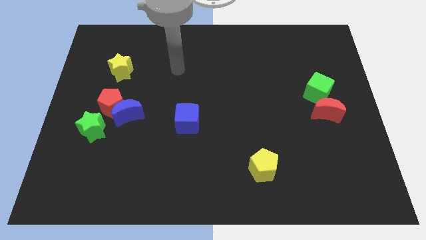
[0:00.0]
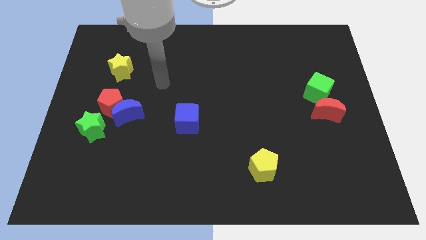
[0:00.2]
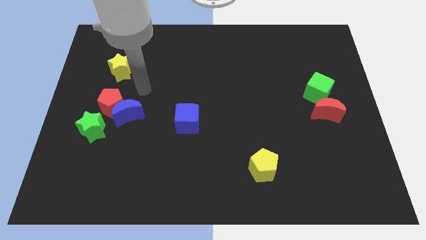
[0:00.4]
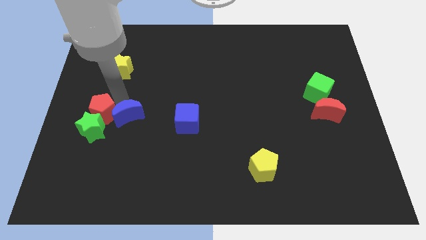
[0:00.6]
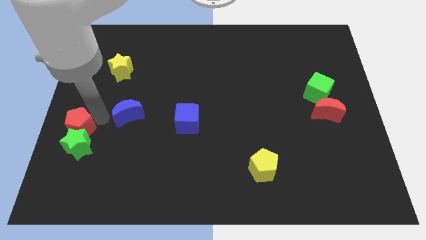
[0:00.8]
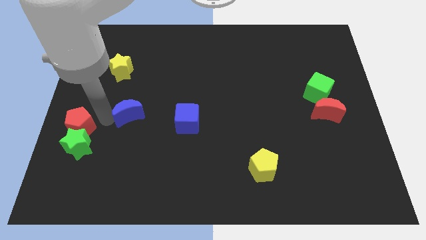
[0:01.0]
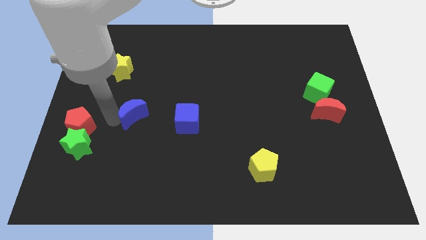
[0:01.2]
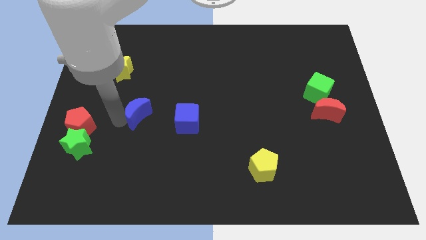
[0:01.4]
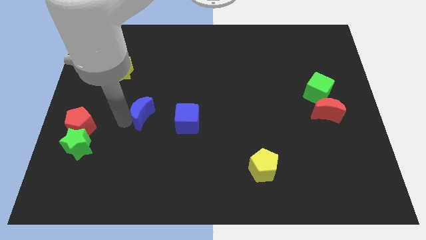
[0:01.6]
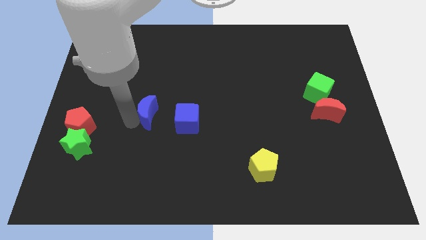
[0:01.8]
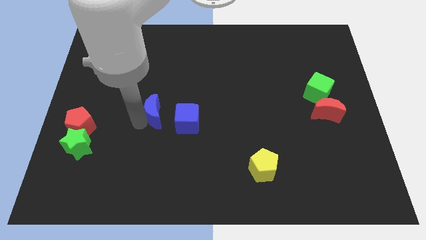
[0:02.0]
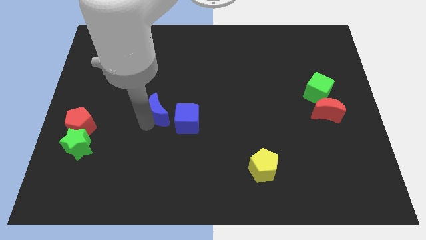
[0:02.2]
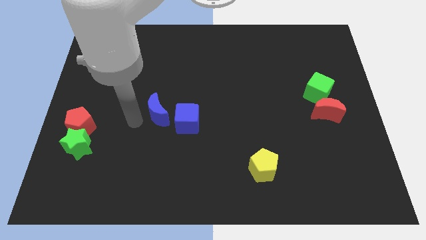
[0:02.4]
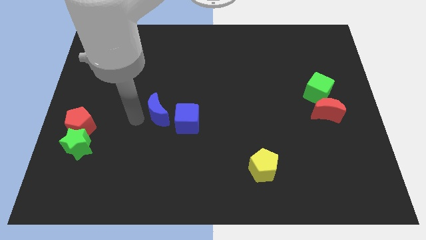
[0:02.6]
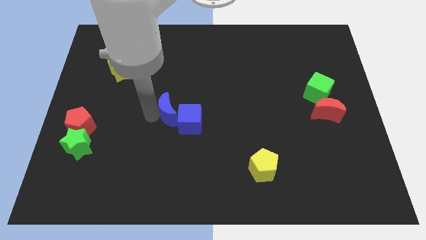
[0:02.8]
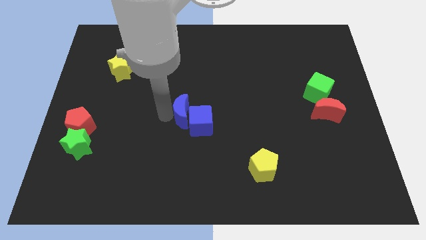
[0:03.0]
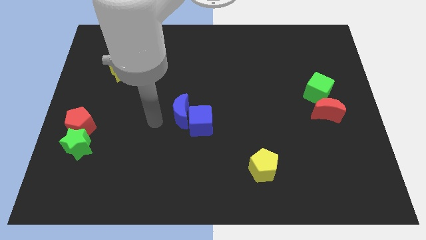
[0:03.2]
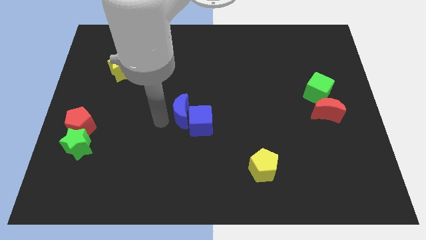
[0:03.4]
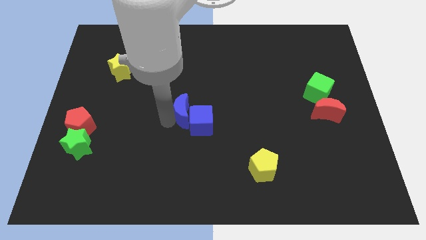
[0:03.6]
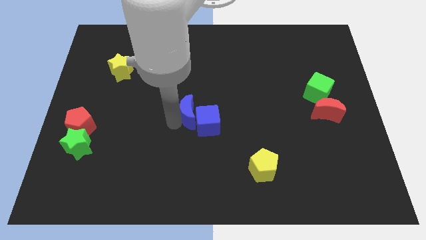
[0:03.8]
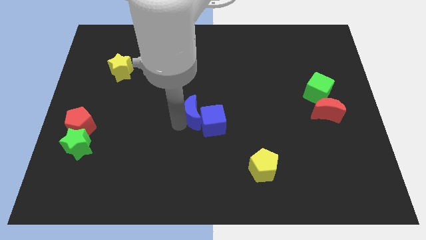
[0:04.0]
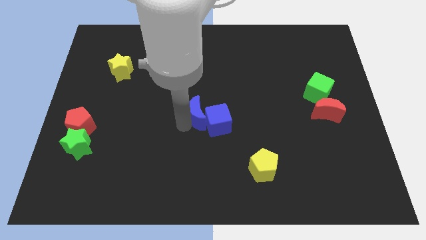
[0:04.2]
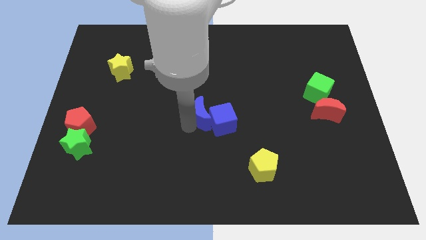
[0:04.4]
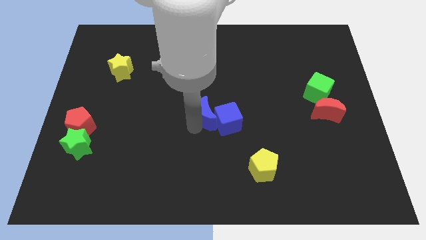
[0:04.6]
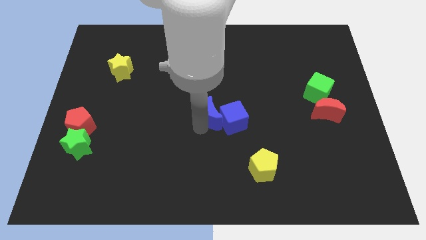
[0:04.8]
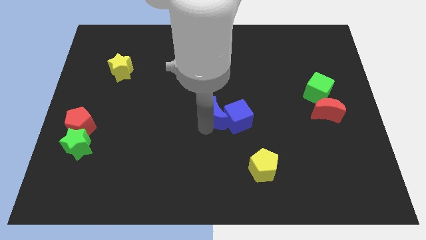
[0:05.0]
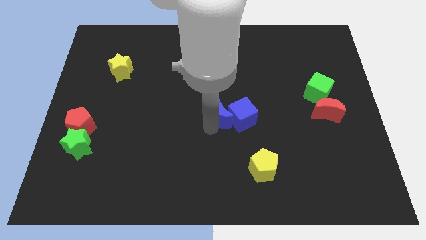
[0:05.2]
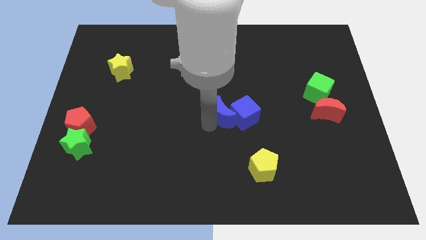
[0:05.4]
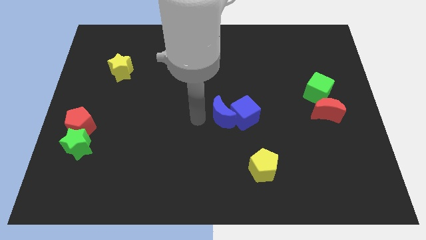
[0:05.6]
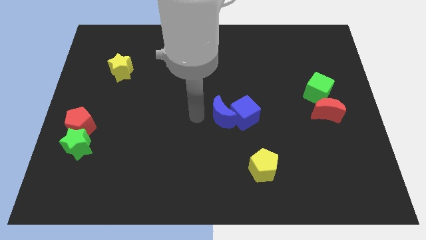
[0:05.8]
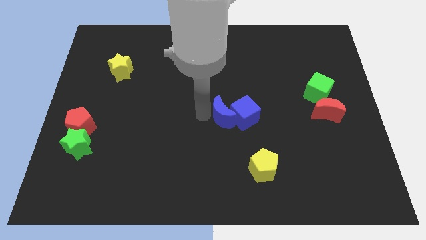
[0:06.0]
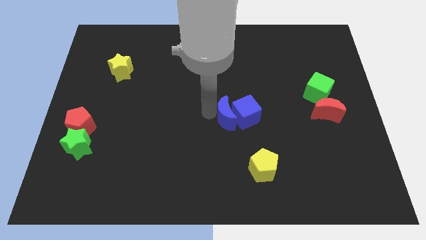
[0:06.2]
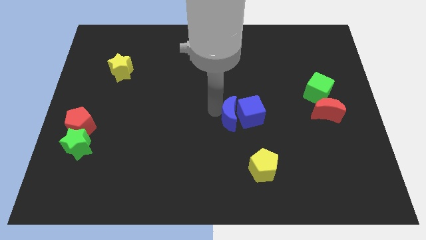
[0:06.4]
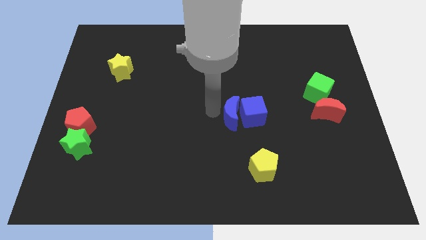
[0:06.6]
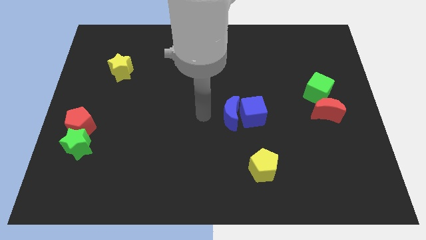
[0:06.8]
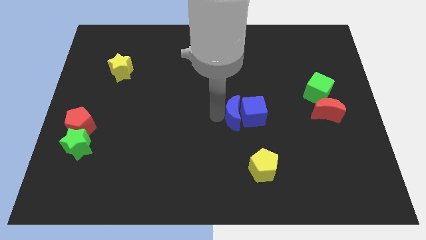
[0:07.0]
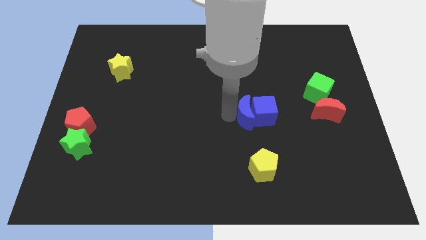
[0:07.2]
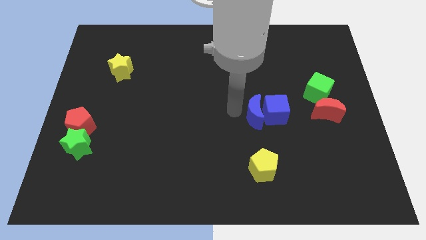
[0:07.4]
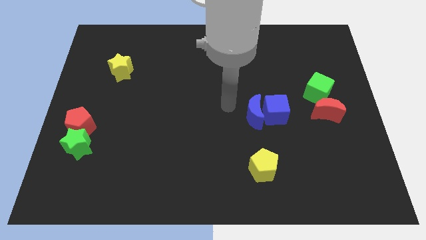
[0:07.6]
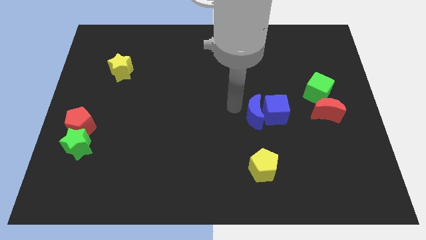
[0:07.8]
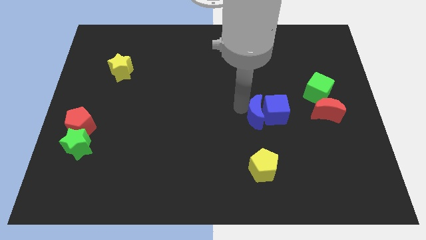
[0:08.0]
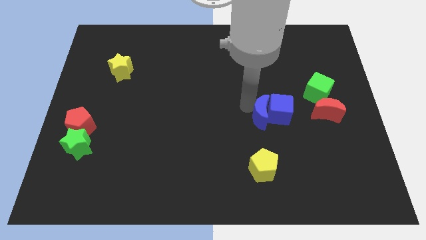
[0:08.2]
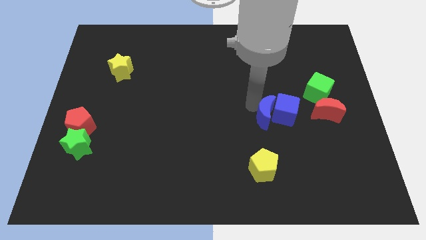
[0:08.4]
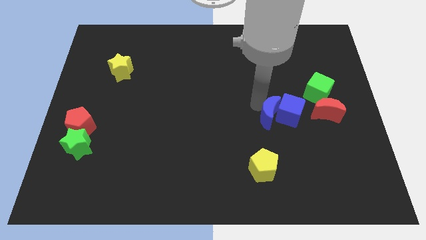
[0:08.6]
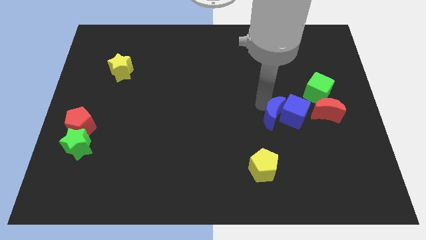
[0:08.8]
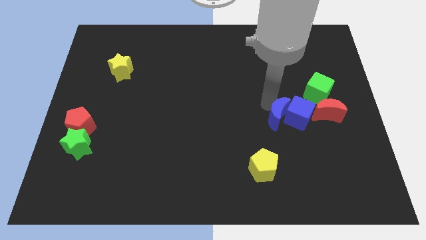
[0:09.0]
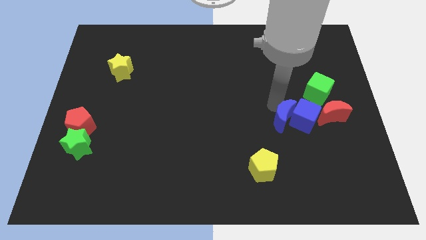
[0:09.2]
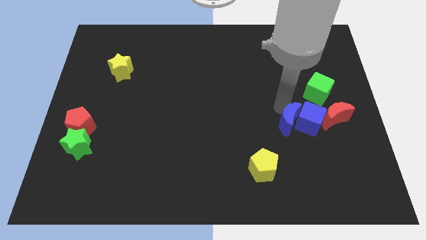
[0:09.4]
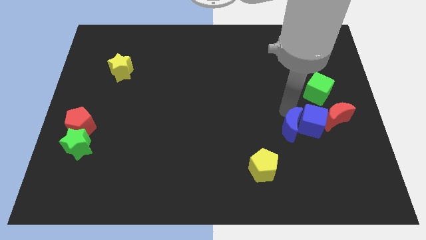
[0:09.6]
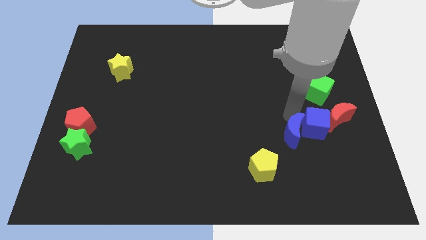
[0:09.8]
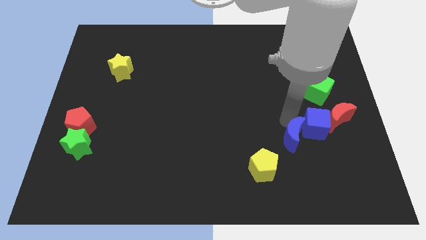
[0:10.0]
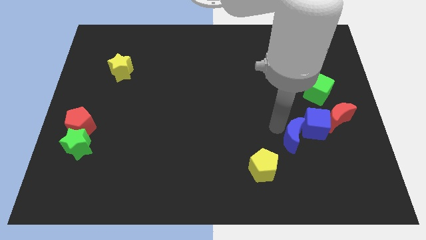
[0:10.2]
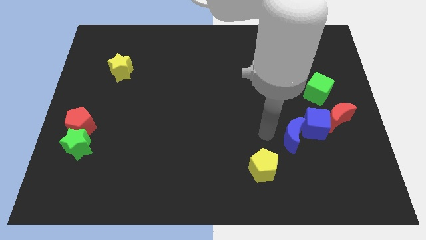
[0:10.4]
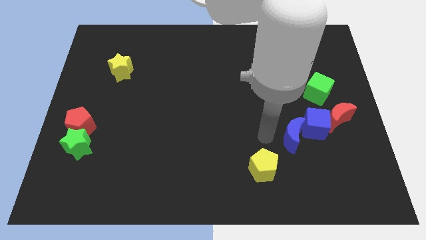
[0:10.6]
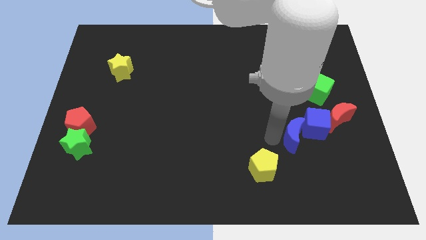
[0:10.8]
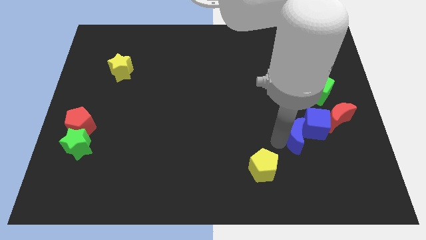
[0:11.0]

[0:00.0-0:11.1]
push the blue moon to the bottom left side of the red moon
